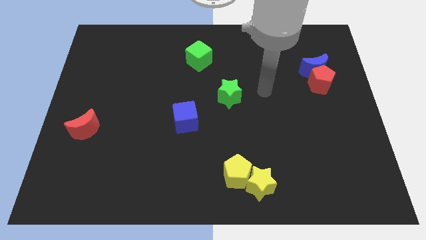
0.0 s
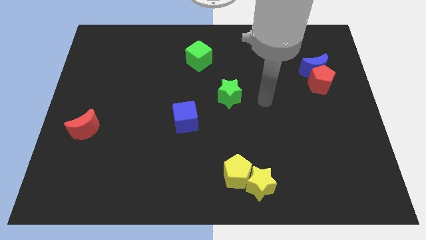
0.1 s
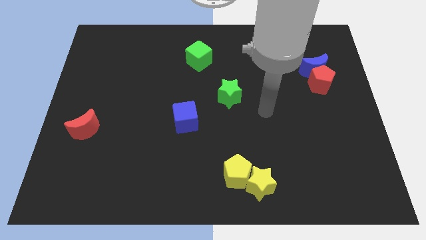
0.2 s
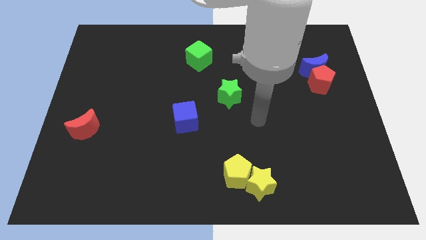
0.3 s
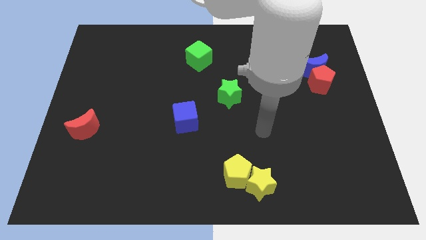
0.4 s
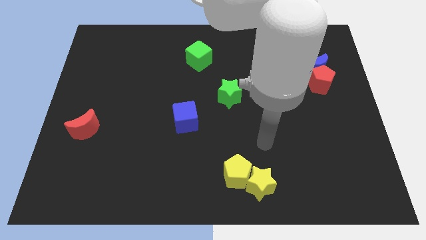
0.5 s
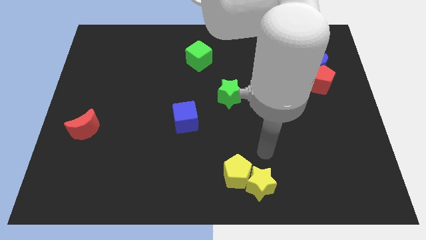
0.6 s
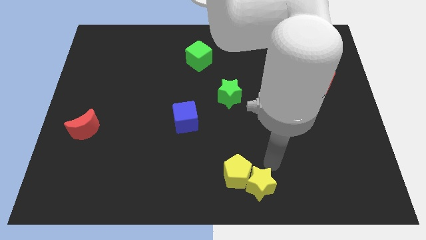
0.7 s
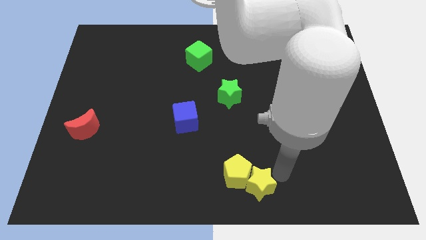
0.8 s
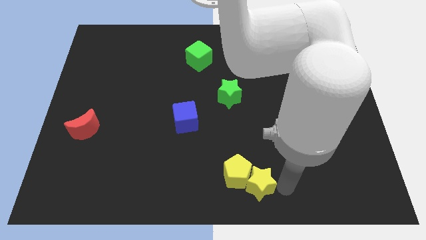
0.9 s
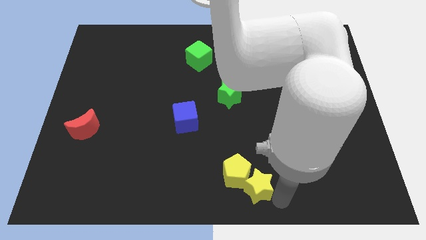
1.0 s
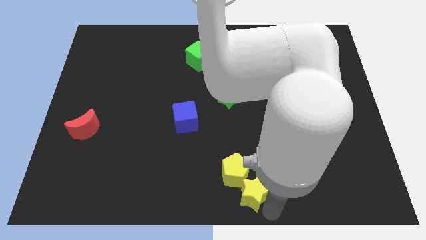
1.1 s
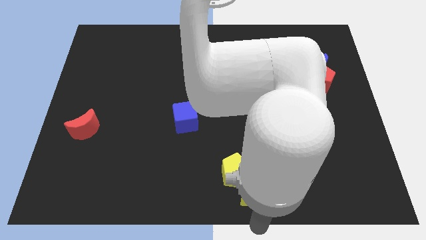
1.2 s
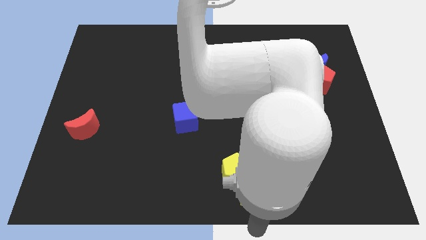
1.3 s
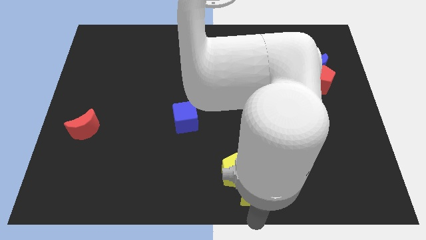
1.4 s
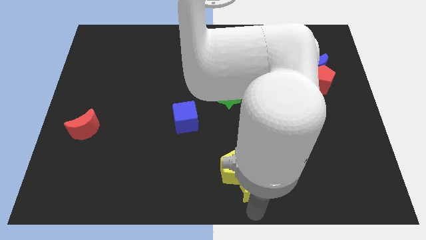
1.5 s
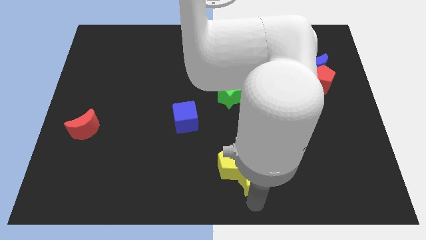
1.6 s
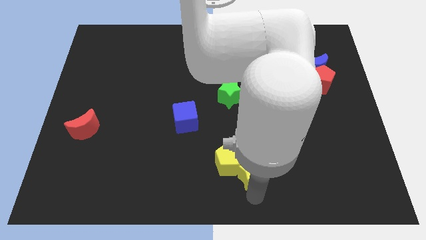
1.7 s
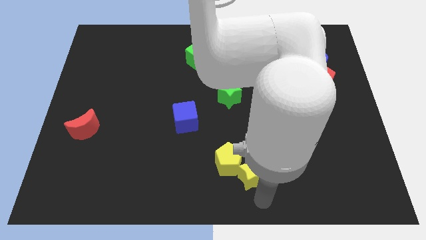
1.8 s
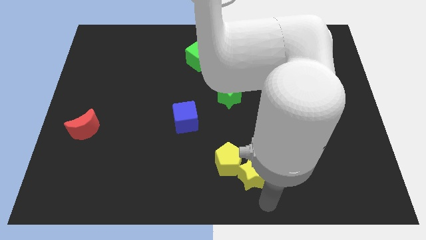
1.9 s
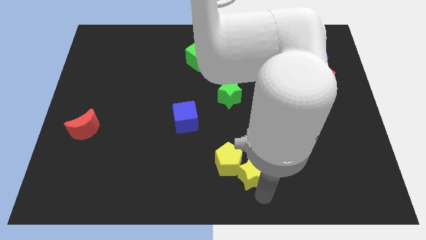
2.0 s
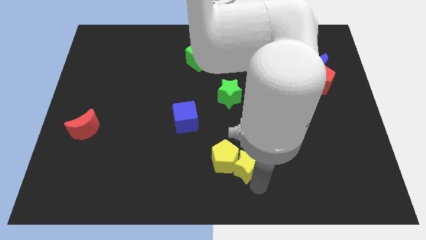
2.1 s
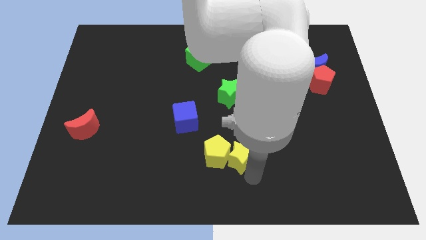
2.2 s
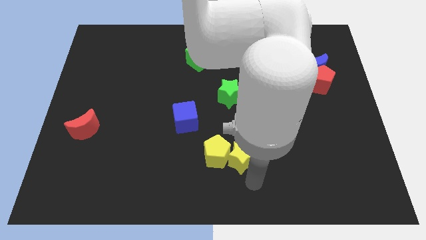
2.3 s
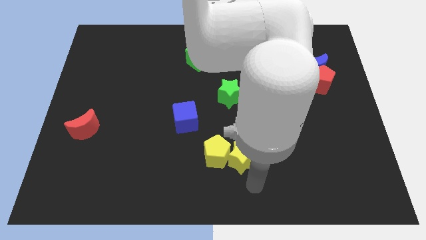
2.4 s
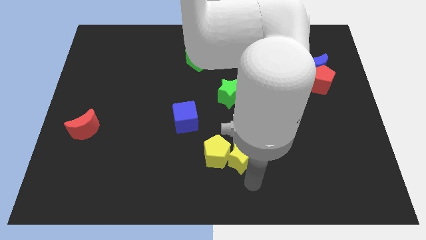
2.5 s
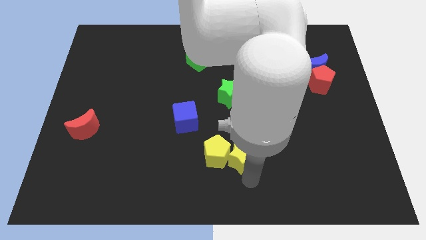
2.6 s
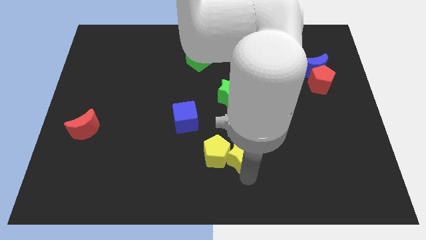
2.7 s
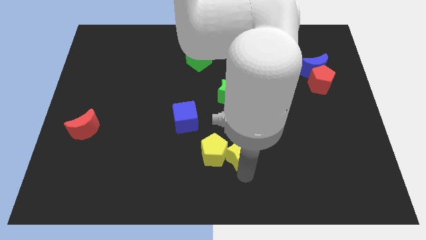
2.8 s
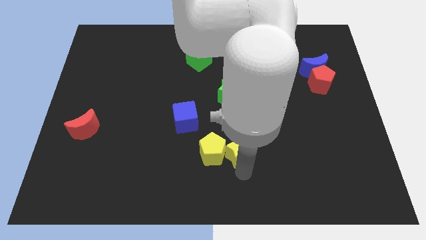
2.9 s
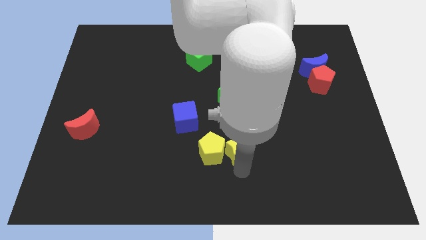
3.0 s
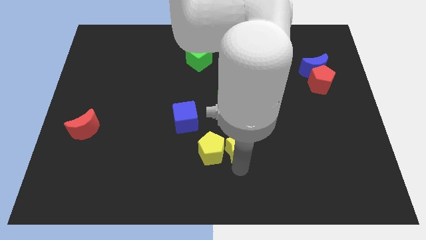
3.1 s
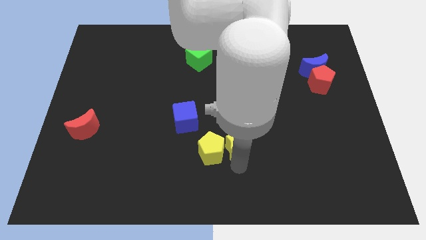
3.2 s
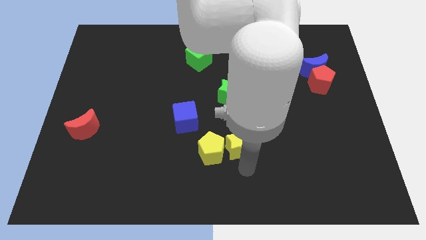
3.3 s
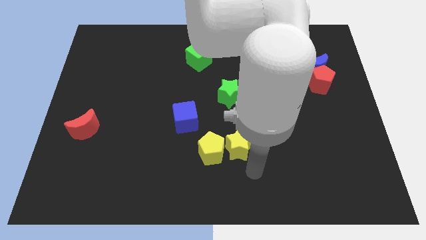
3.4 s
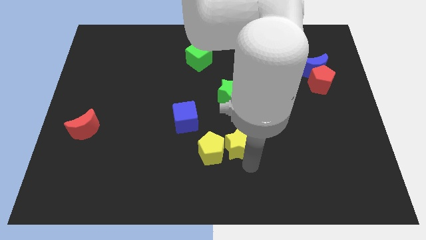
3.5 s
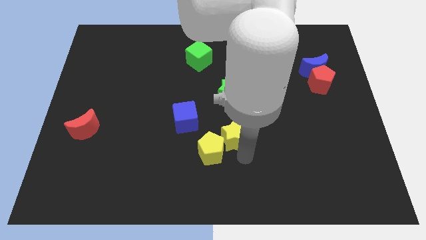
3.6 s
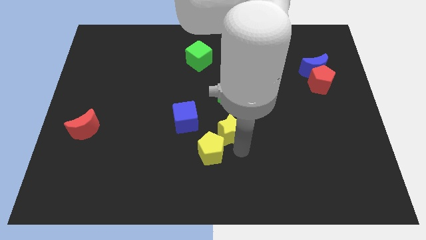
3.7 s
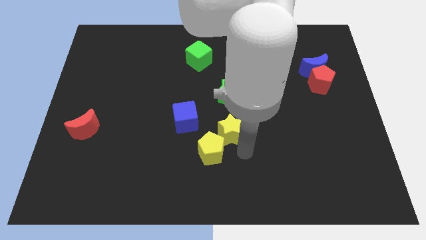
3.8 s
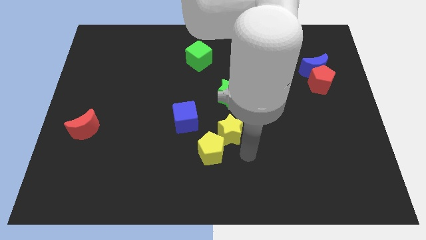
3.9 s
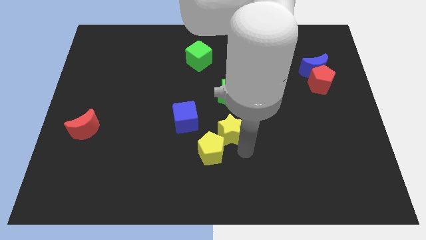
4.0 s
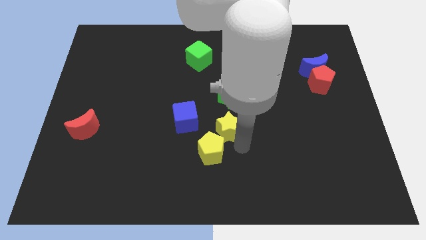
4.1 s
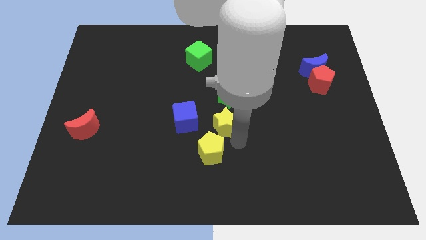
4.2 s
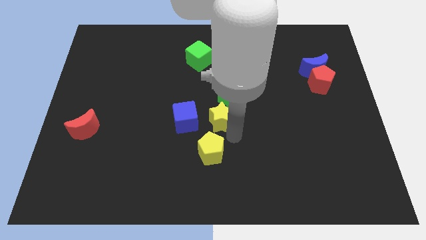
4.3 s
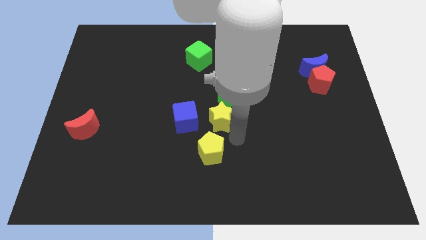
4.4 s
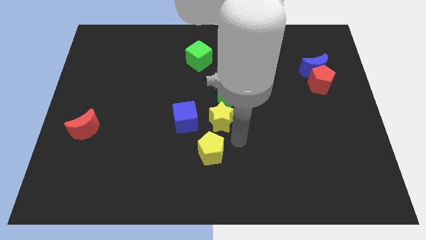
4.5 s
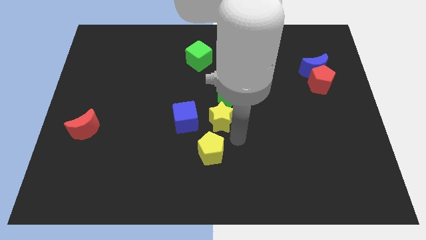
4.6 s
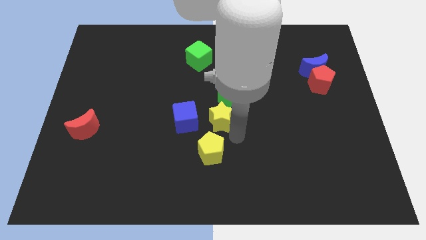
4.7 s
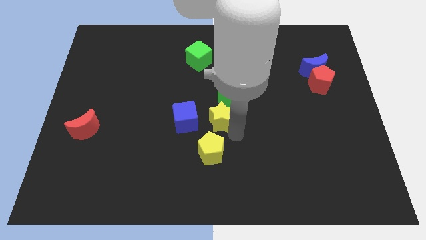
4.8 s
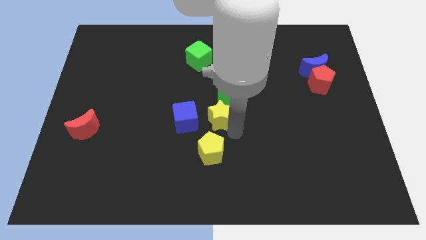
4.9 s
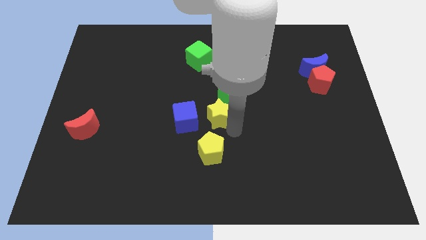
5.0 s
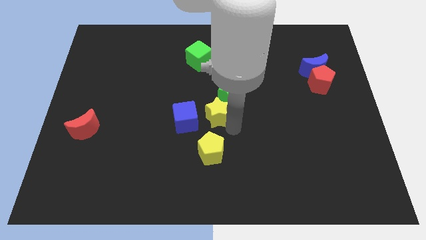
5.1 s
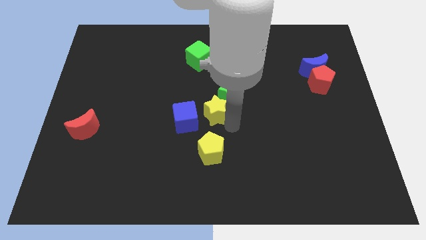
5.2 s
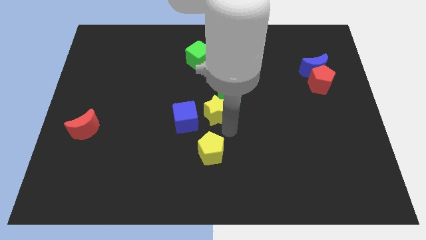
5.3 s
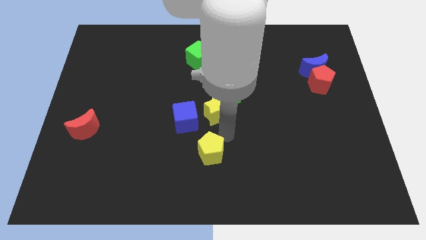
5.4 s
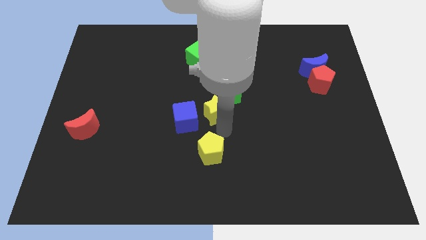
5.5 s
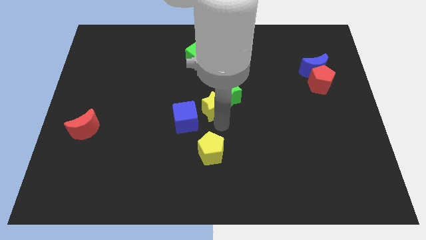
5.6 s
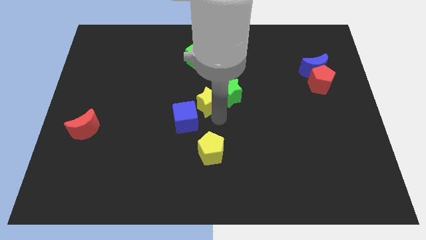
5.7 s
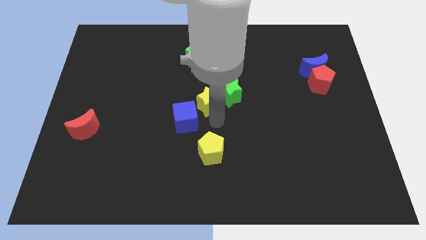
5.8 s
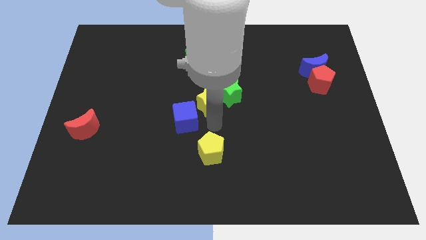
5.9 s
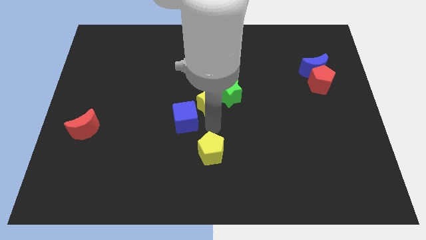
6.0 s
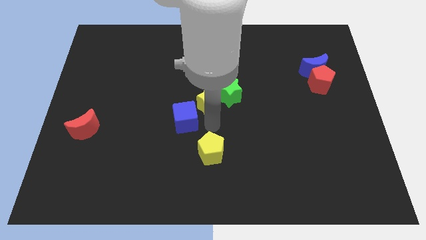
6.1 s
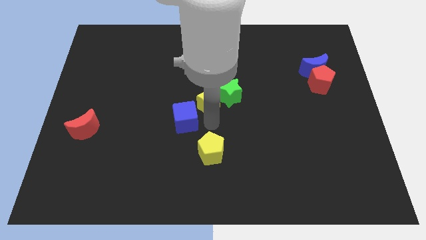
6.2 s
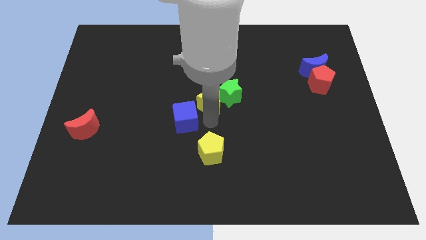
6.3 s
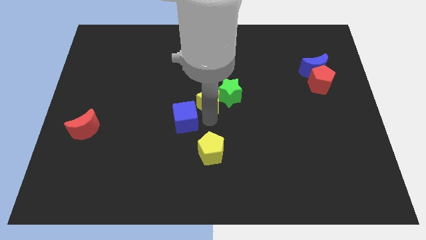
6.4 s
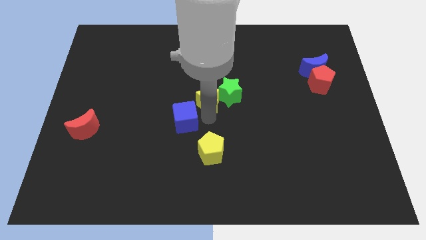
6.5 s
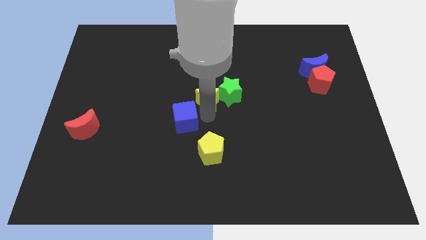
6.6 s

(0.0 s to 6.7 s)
put the yellow star diagonally up and to the left of the green star

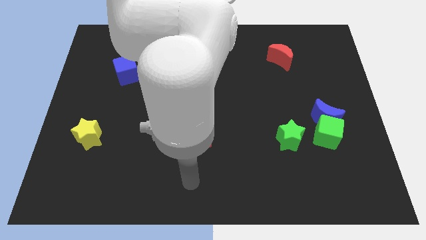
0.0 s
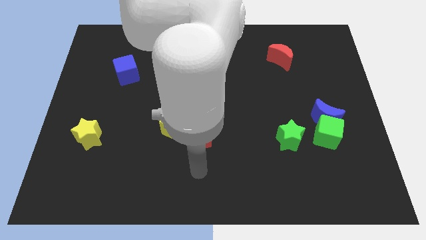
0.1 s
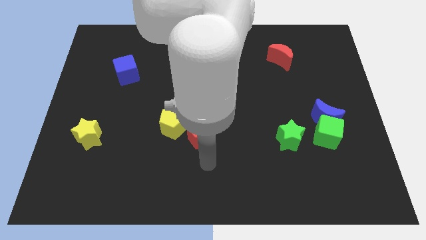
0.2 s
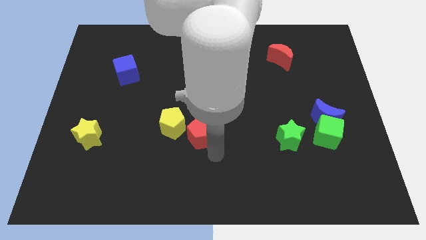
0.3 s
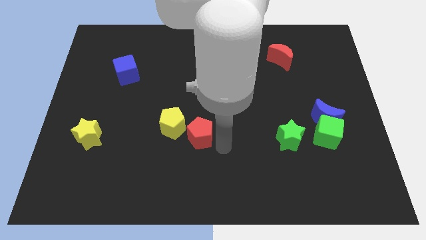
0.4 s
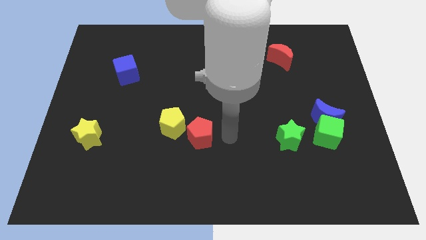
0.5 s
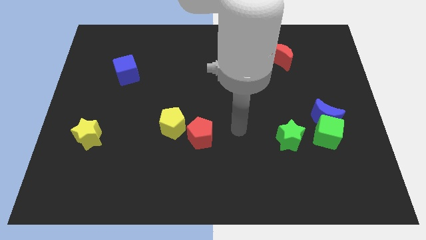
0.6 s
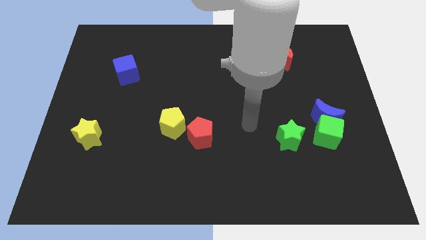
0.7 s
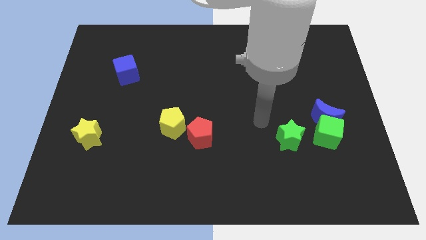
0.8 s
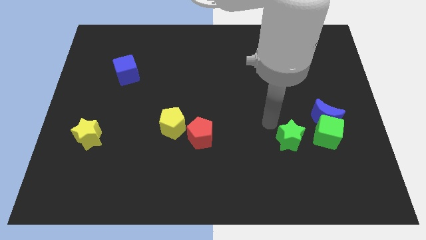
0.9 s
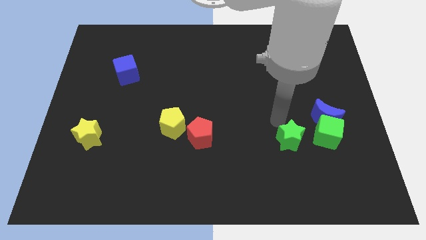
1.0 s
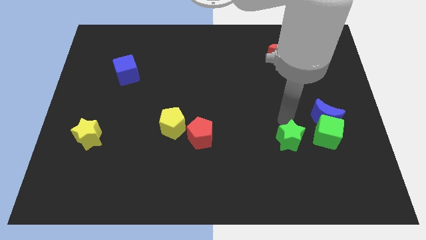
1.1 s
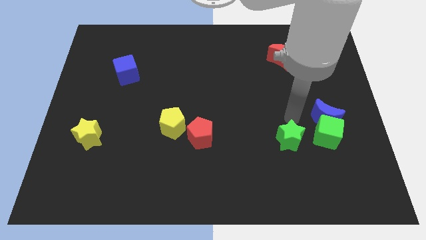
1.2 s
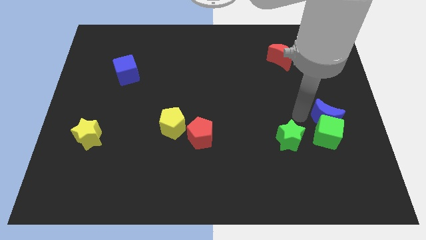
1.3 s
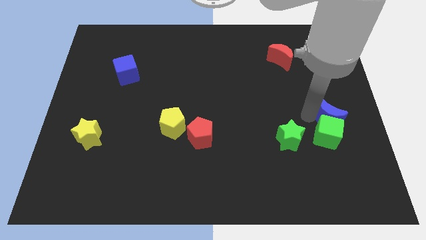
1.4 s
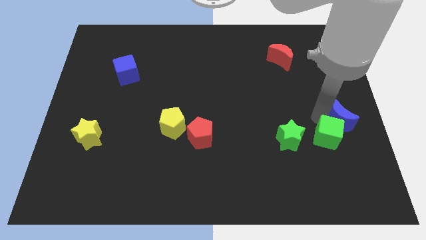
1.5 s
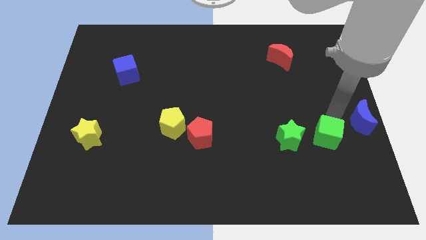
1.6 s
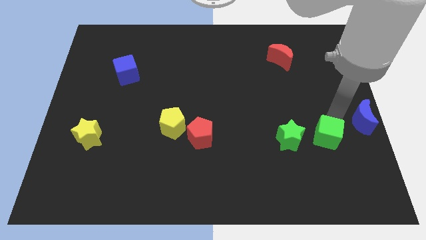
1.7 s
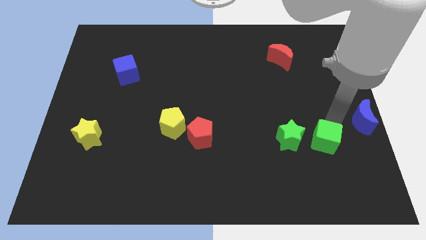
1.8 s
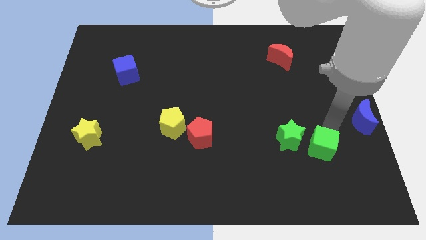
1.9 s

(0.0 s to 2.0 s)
slide the green cube to the bottom right side of the green star
